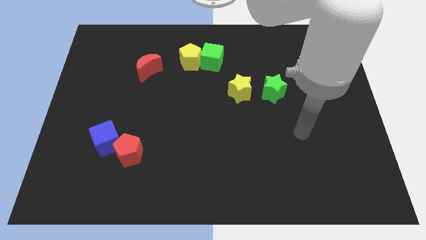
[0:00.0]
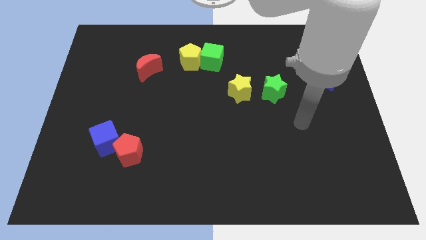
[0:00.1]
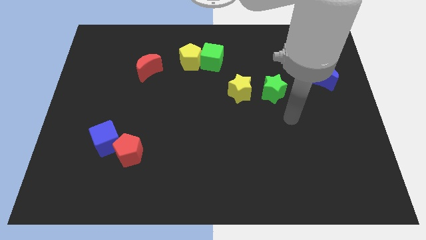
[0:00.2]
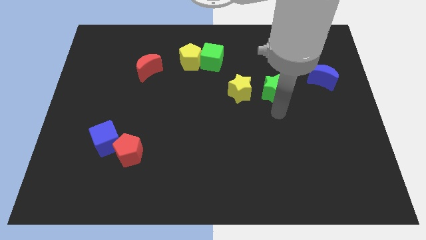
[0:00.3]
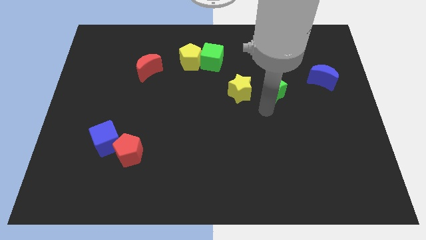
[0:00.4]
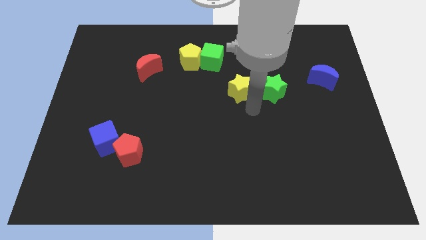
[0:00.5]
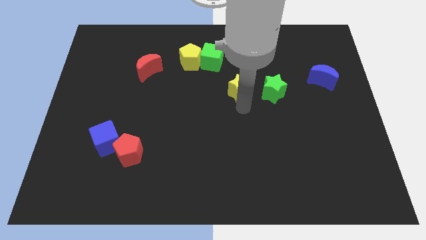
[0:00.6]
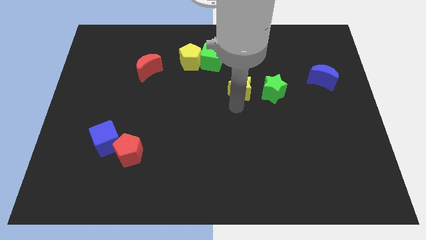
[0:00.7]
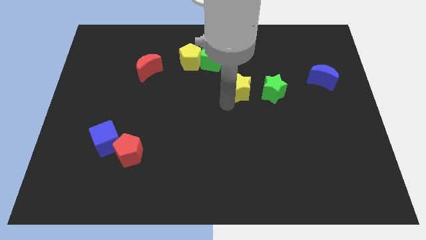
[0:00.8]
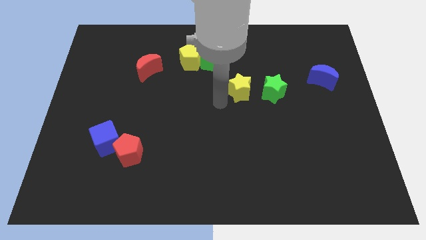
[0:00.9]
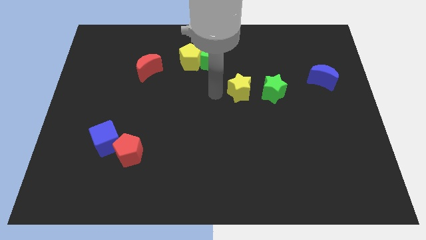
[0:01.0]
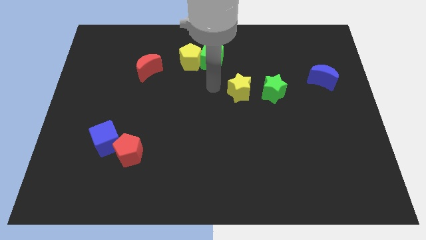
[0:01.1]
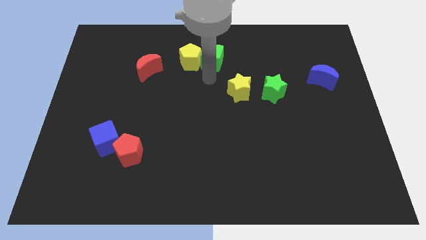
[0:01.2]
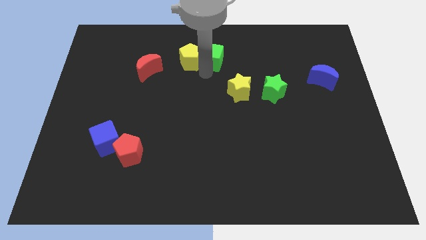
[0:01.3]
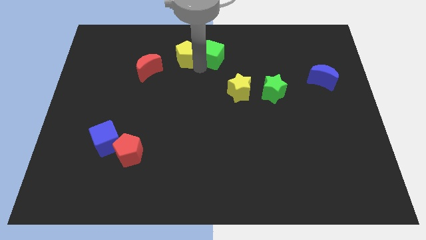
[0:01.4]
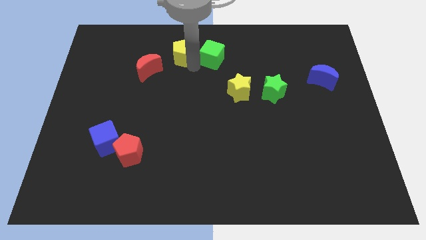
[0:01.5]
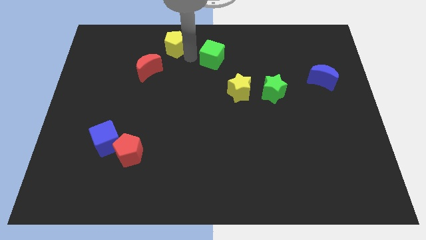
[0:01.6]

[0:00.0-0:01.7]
pull the green cube apart from the yellow pentagon

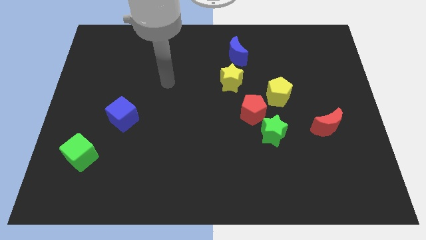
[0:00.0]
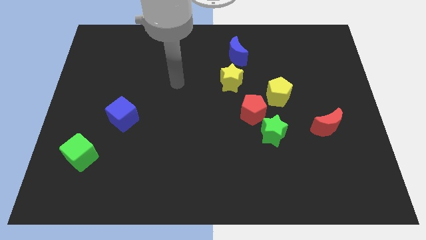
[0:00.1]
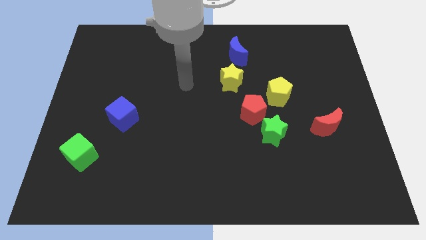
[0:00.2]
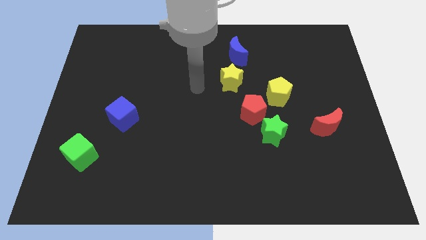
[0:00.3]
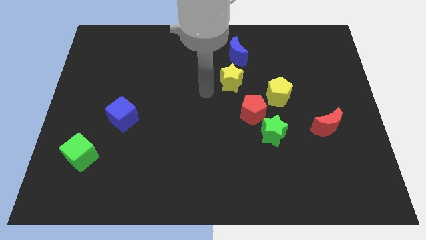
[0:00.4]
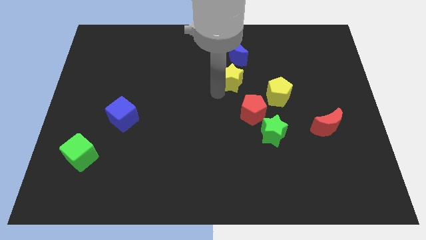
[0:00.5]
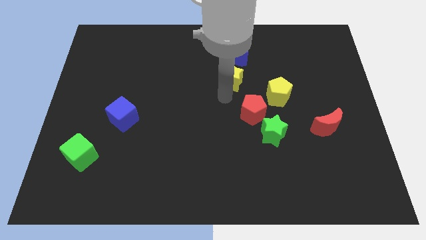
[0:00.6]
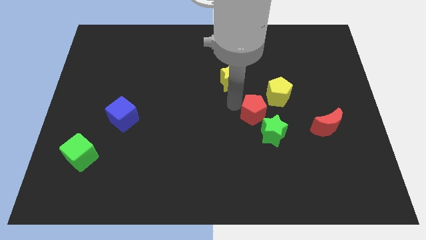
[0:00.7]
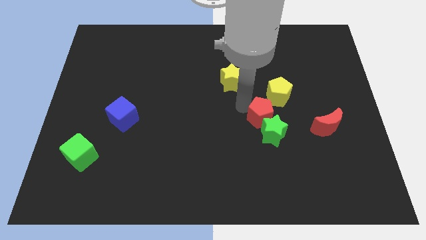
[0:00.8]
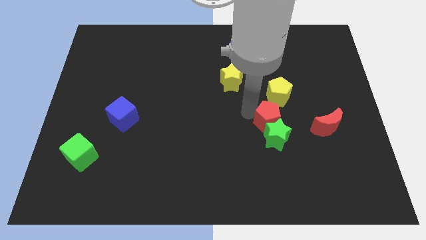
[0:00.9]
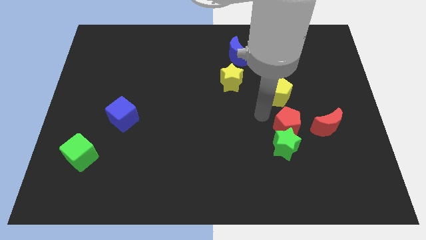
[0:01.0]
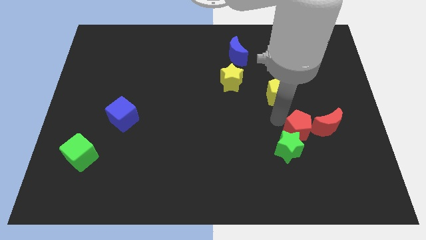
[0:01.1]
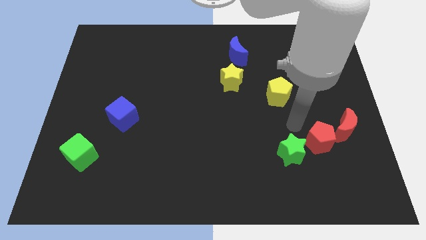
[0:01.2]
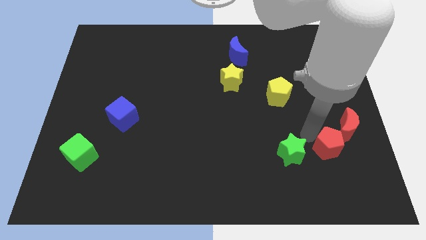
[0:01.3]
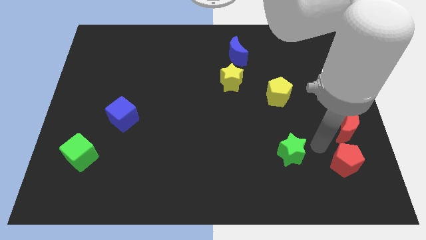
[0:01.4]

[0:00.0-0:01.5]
move the green star away from the red pentagon

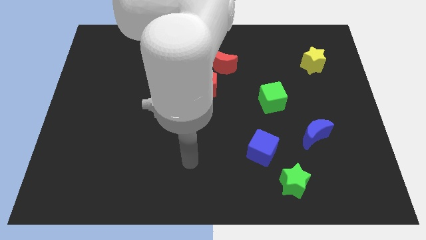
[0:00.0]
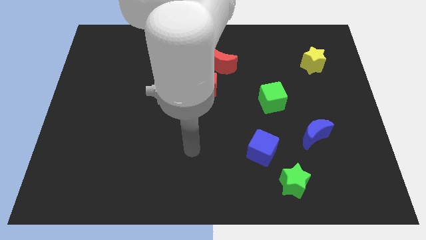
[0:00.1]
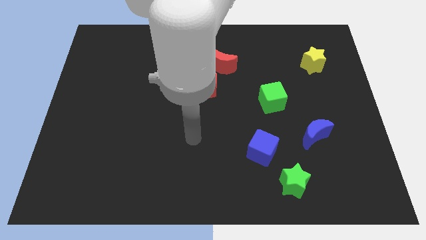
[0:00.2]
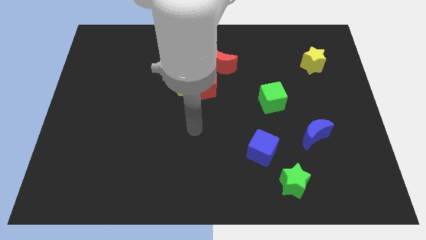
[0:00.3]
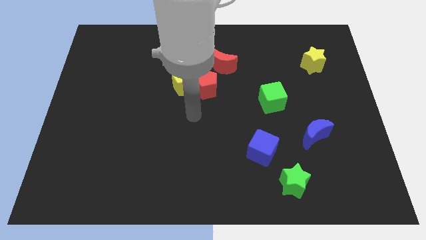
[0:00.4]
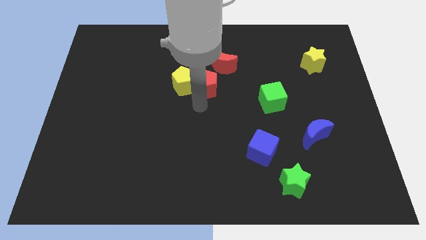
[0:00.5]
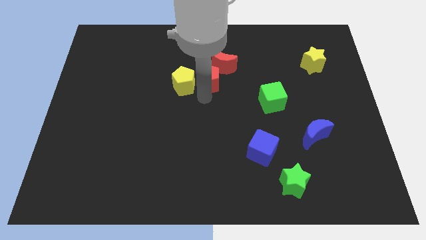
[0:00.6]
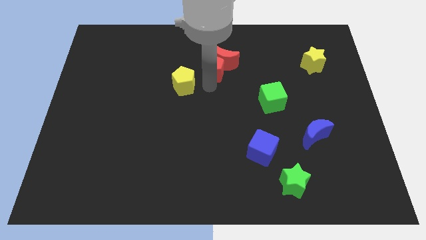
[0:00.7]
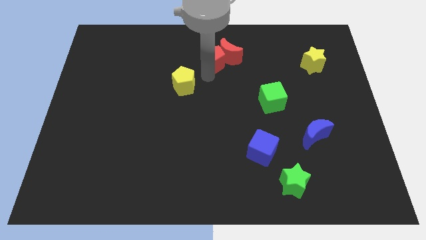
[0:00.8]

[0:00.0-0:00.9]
pull the yellow pentagon apart from the red pentagon

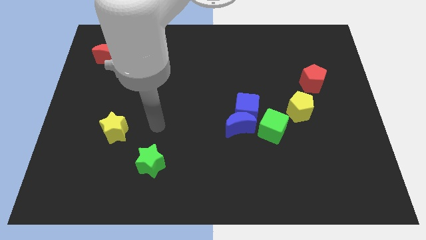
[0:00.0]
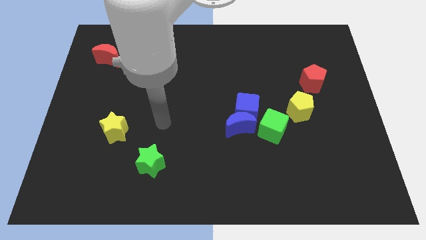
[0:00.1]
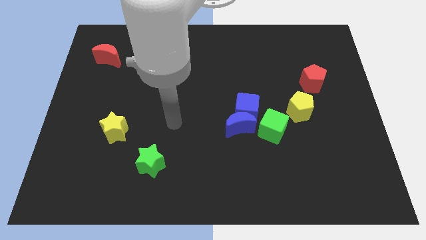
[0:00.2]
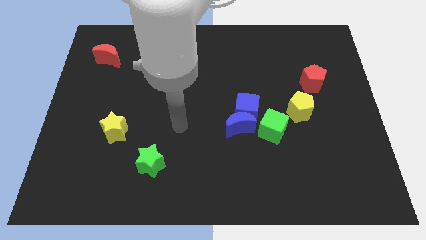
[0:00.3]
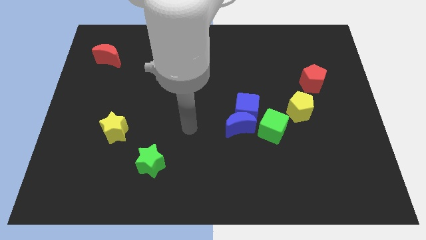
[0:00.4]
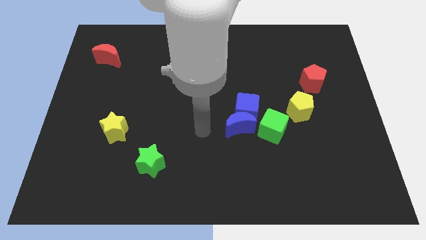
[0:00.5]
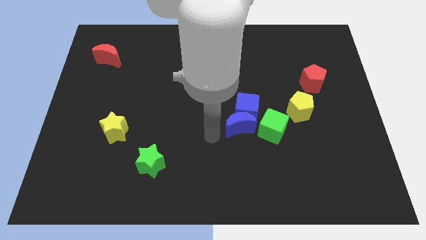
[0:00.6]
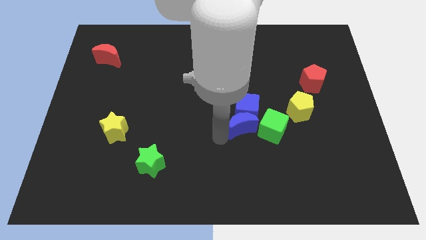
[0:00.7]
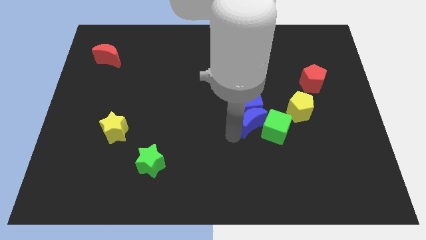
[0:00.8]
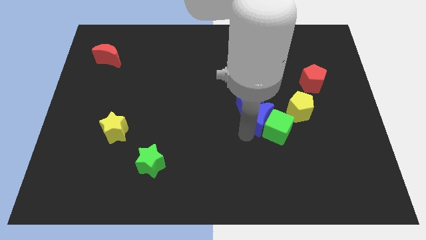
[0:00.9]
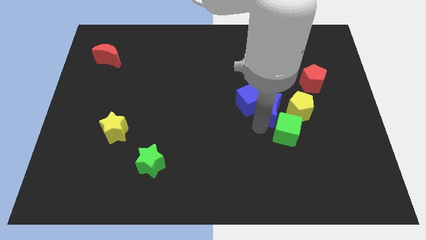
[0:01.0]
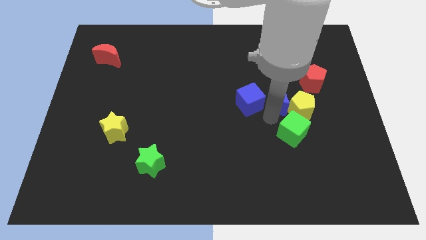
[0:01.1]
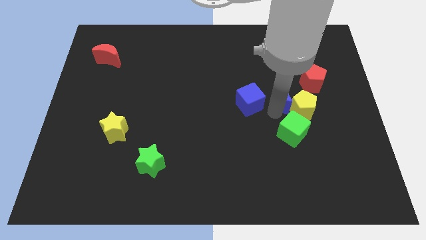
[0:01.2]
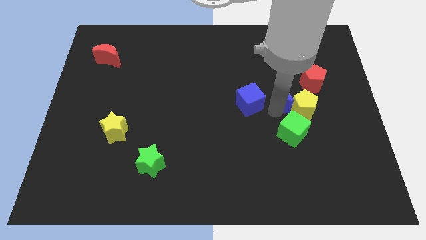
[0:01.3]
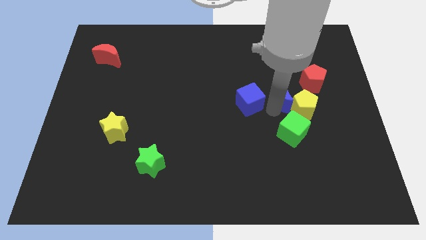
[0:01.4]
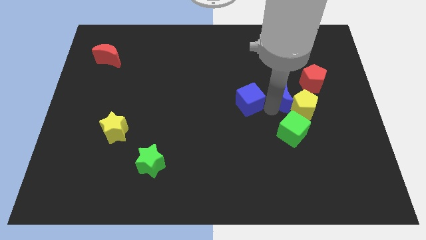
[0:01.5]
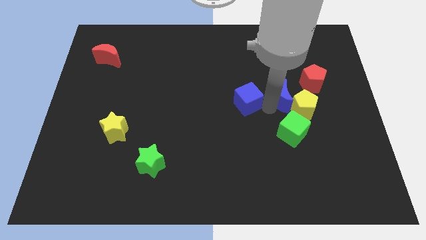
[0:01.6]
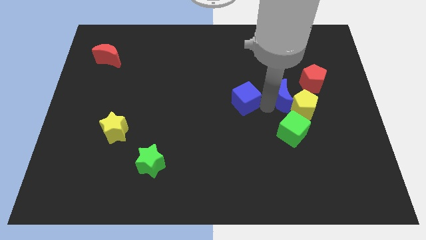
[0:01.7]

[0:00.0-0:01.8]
separate the blue cube from the blue moon and green cube

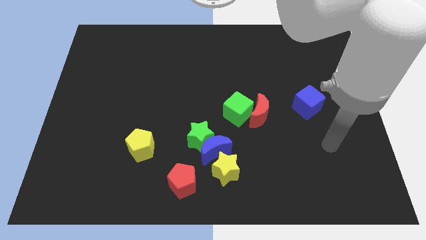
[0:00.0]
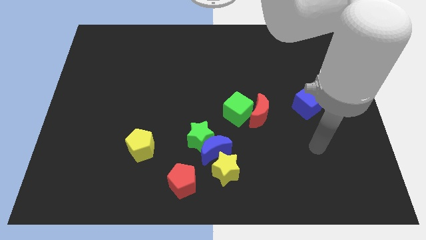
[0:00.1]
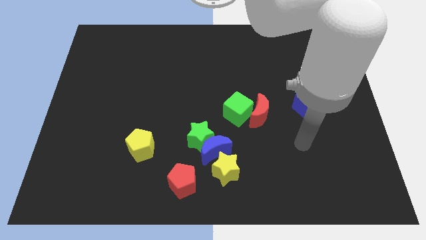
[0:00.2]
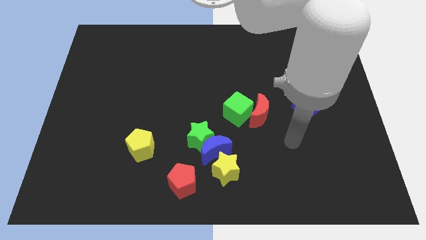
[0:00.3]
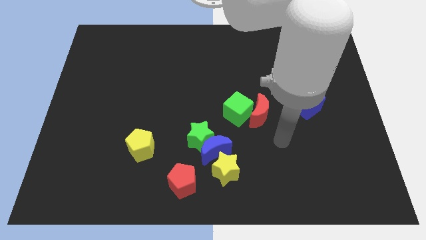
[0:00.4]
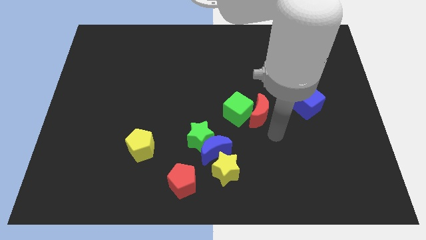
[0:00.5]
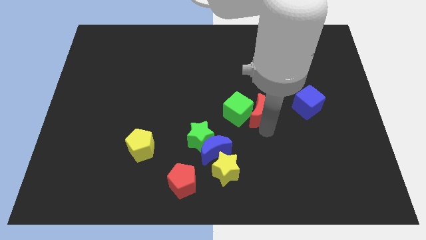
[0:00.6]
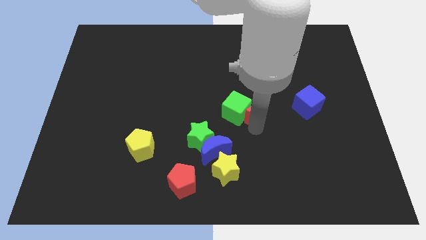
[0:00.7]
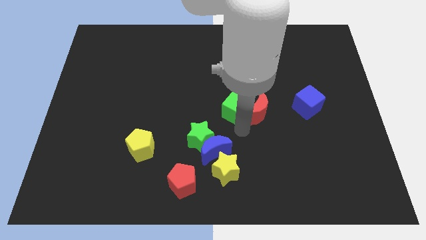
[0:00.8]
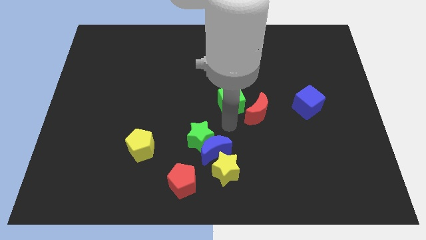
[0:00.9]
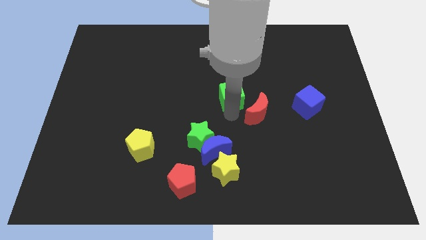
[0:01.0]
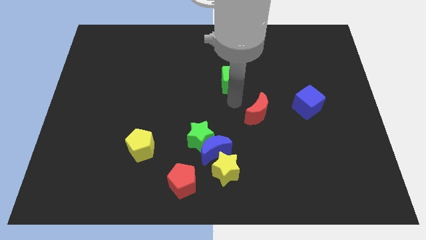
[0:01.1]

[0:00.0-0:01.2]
separate the red moon from the green cube

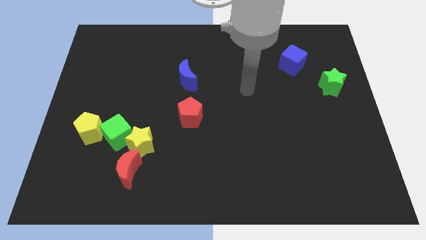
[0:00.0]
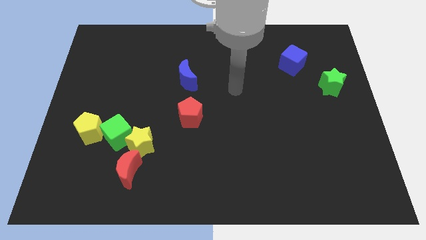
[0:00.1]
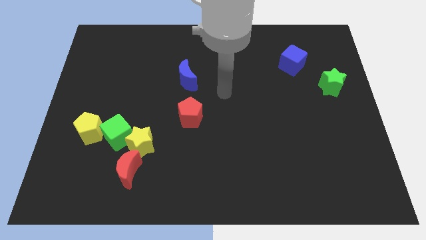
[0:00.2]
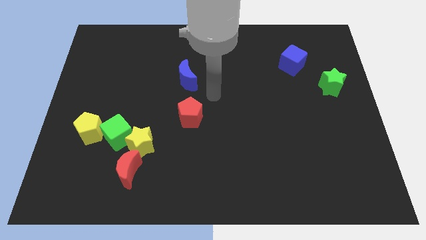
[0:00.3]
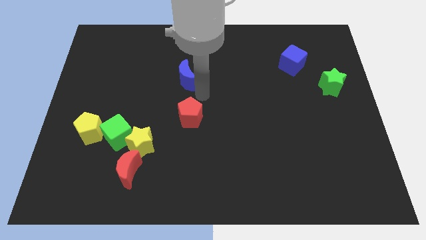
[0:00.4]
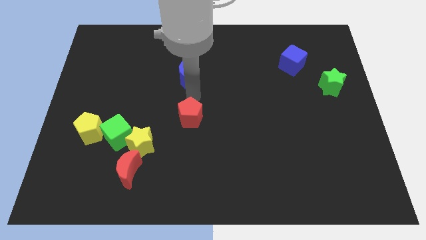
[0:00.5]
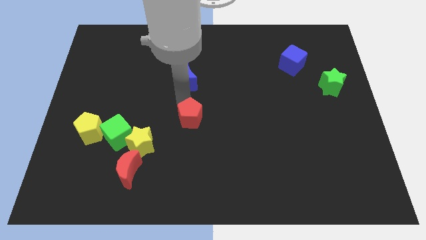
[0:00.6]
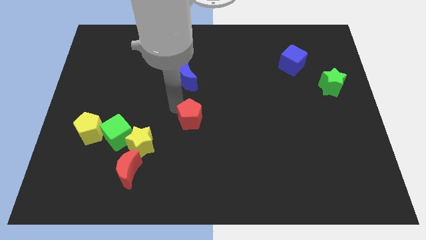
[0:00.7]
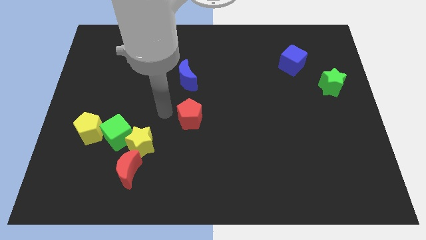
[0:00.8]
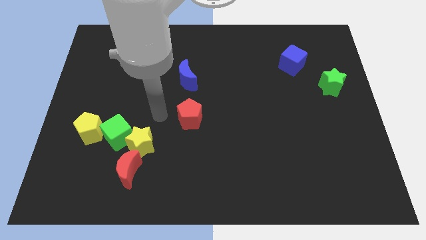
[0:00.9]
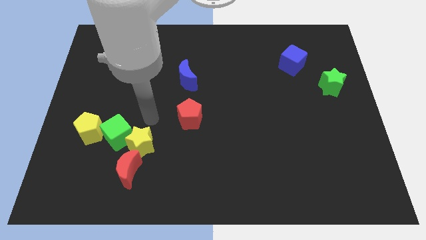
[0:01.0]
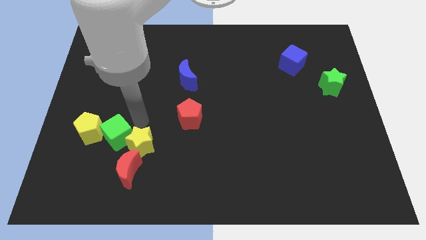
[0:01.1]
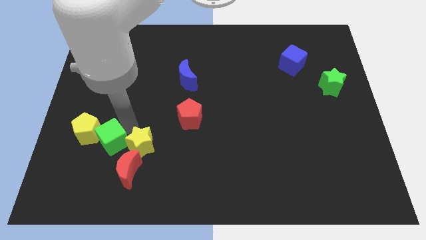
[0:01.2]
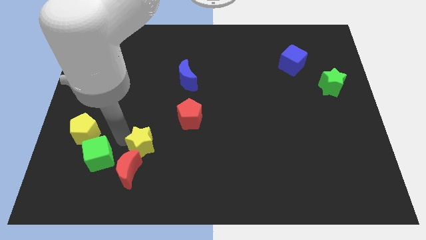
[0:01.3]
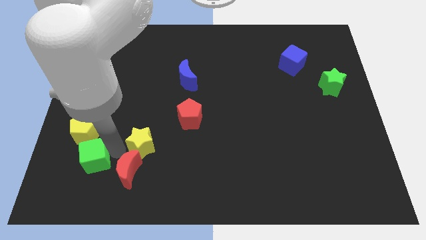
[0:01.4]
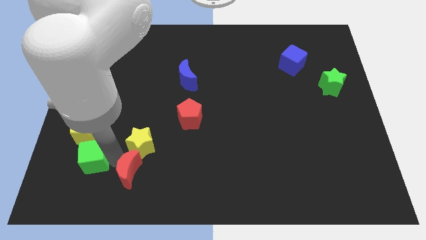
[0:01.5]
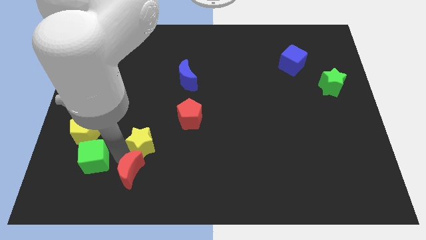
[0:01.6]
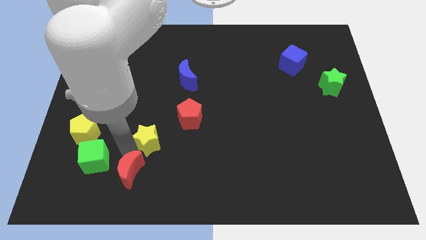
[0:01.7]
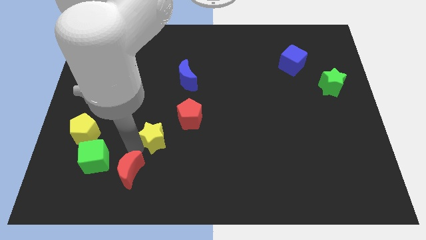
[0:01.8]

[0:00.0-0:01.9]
pull the yellow star apart from the green cube and red moon

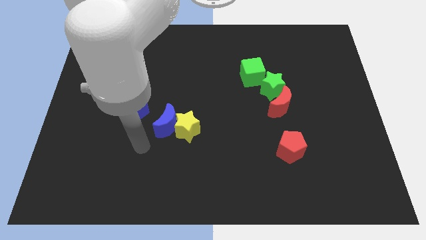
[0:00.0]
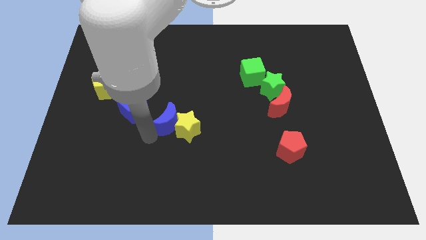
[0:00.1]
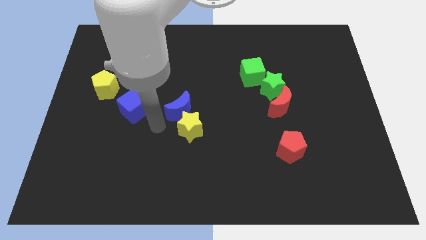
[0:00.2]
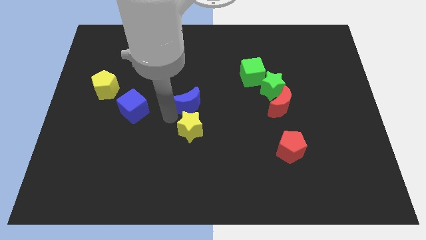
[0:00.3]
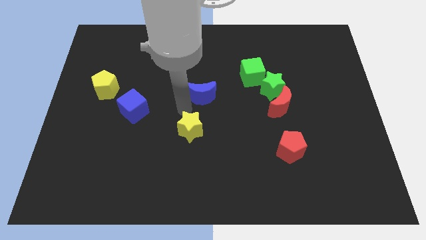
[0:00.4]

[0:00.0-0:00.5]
separate the yellow star from the blue moon
